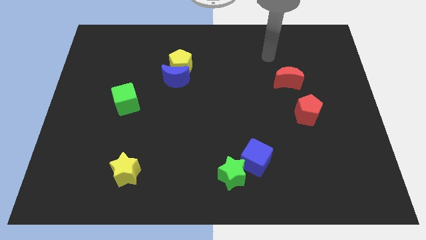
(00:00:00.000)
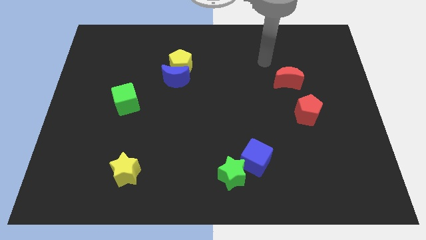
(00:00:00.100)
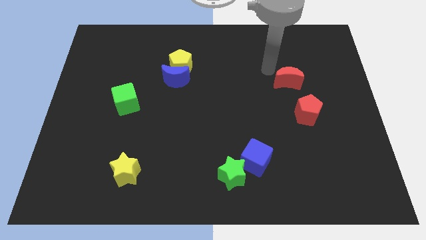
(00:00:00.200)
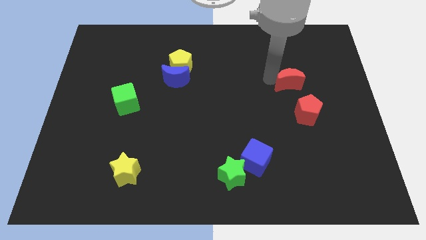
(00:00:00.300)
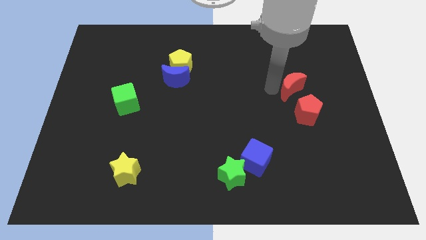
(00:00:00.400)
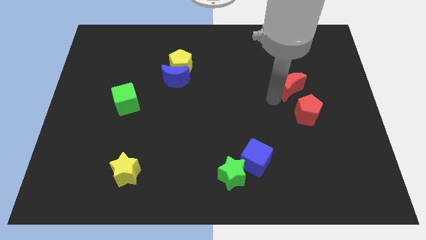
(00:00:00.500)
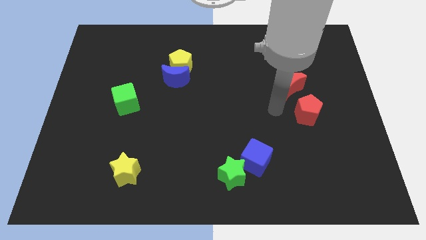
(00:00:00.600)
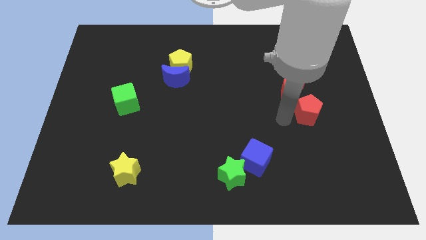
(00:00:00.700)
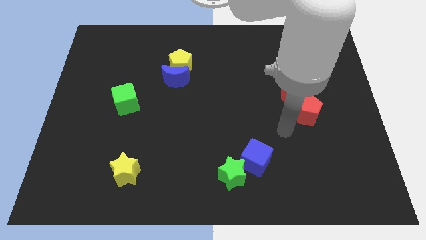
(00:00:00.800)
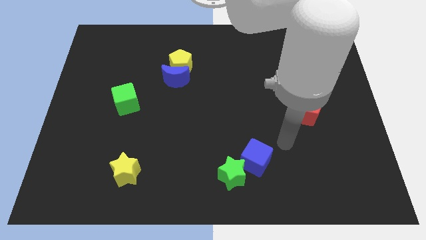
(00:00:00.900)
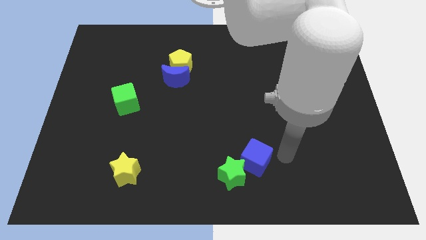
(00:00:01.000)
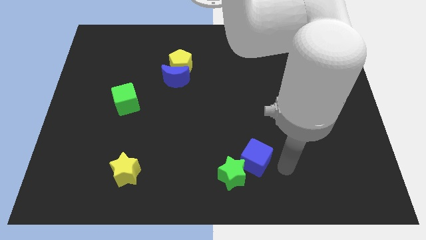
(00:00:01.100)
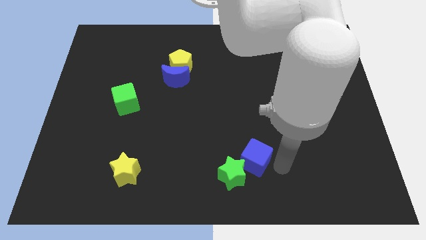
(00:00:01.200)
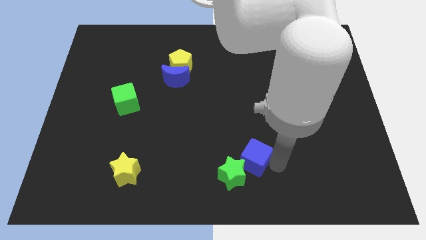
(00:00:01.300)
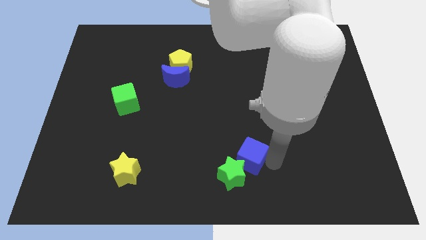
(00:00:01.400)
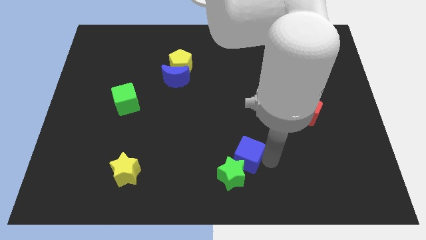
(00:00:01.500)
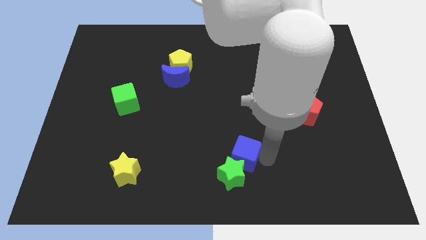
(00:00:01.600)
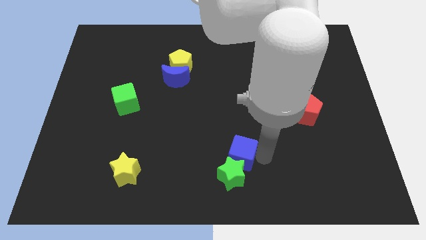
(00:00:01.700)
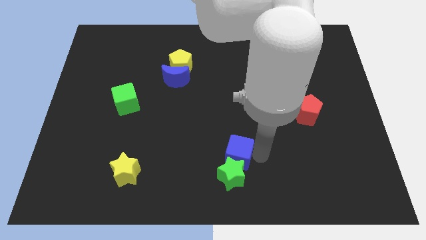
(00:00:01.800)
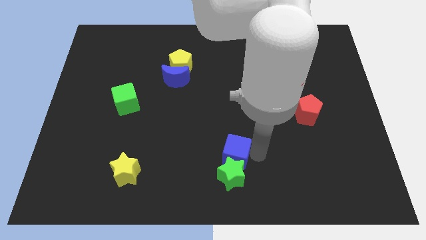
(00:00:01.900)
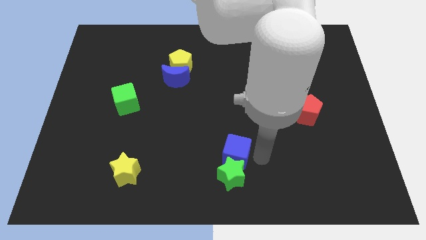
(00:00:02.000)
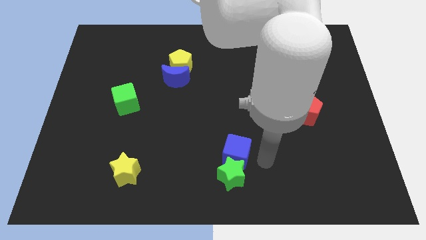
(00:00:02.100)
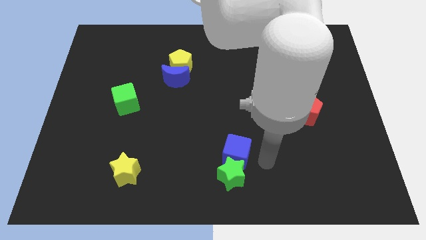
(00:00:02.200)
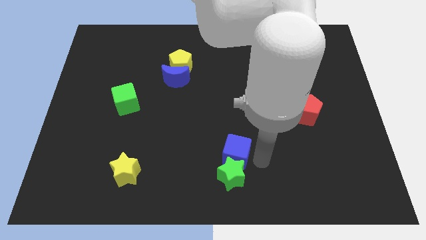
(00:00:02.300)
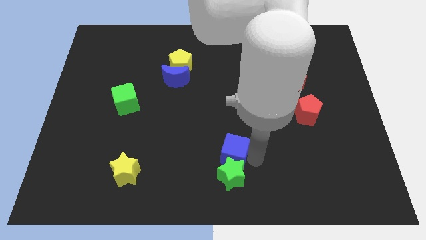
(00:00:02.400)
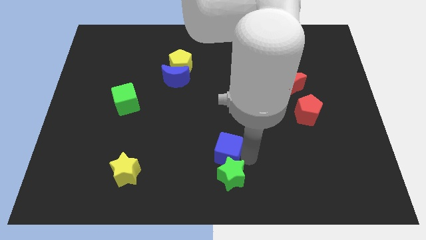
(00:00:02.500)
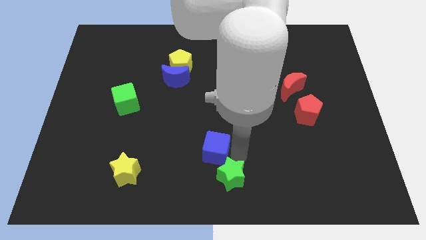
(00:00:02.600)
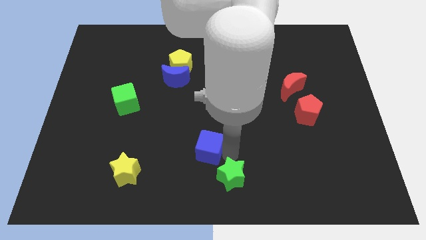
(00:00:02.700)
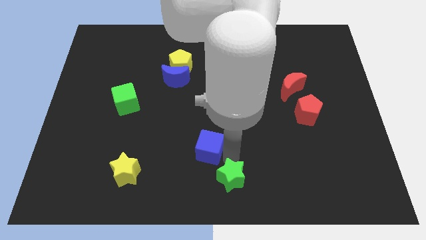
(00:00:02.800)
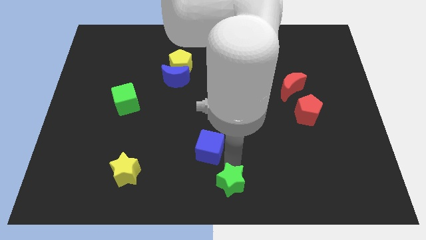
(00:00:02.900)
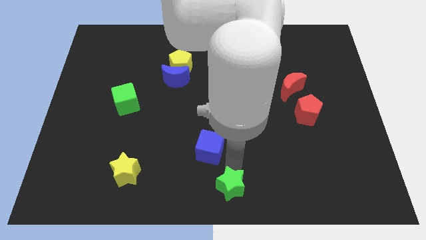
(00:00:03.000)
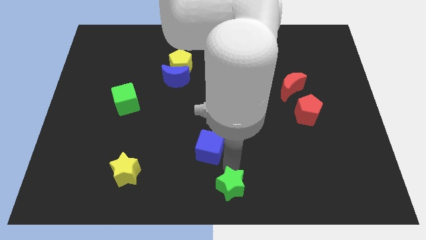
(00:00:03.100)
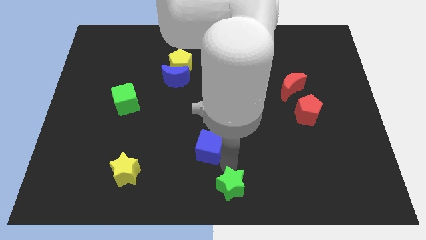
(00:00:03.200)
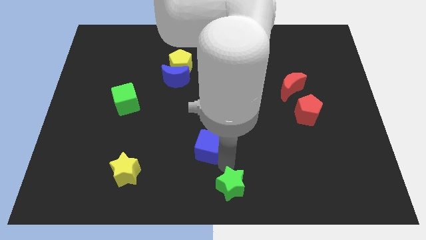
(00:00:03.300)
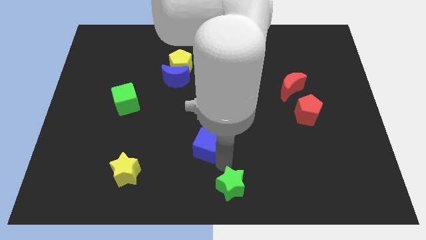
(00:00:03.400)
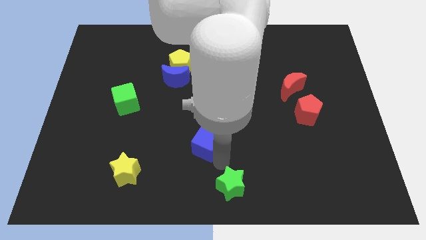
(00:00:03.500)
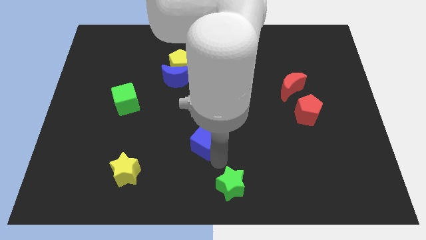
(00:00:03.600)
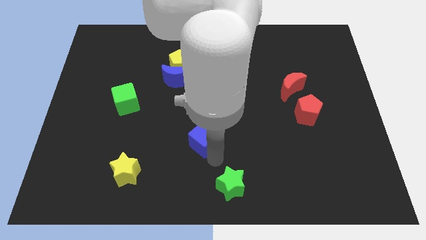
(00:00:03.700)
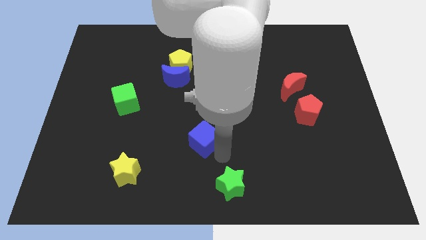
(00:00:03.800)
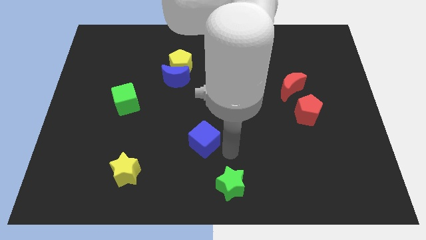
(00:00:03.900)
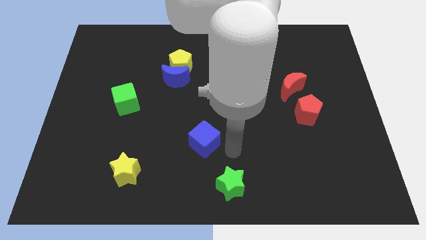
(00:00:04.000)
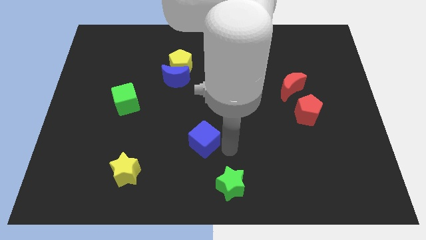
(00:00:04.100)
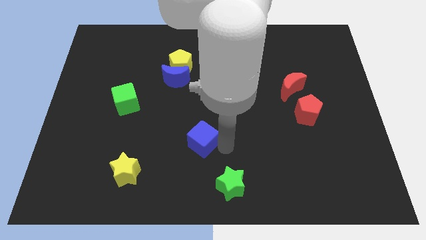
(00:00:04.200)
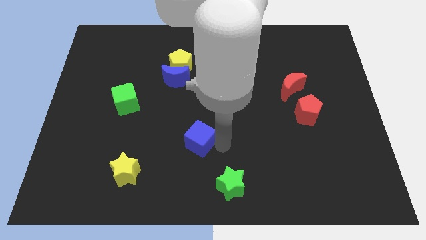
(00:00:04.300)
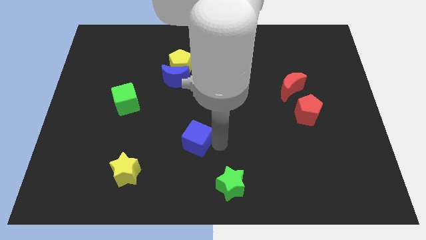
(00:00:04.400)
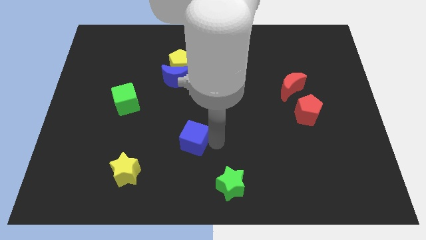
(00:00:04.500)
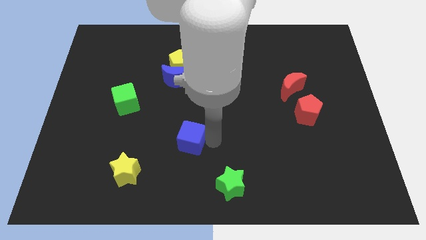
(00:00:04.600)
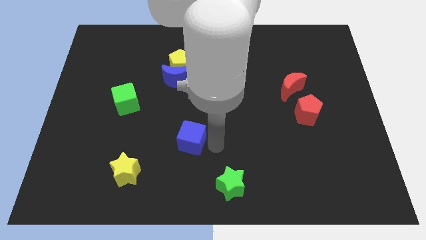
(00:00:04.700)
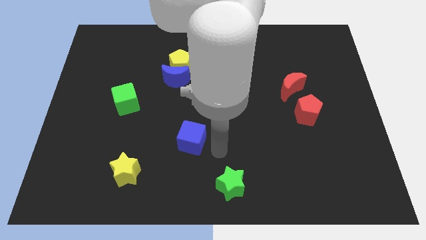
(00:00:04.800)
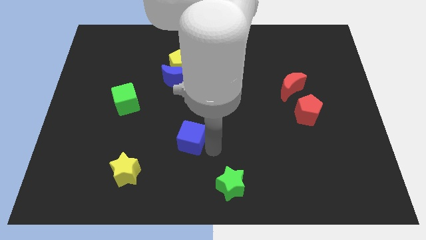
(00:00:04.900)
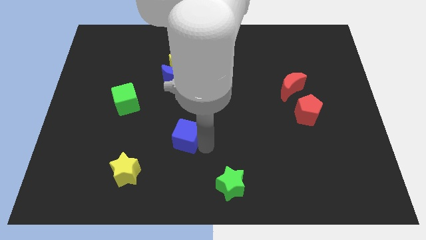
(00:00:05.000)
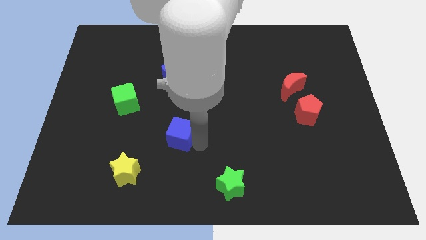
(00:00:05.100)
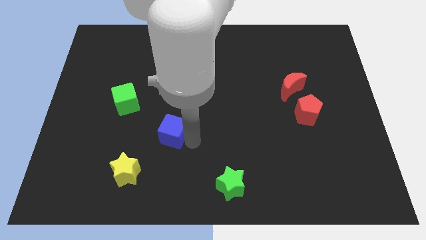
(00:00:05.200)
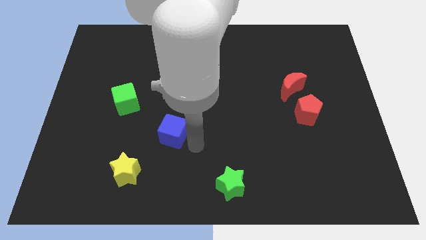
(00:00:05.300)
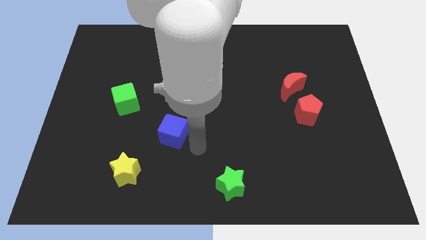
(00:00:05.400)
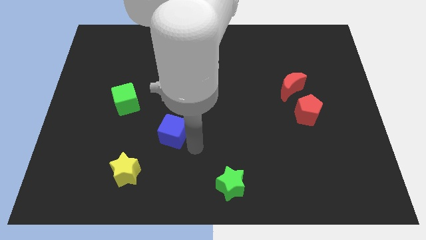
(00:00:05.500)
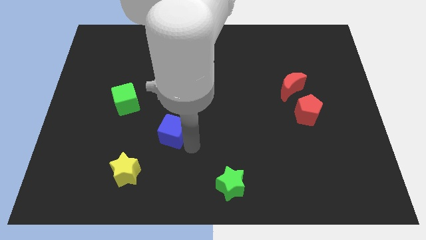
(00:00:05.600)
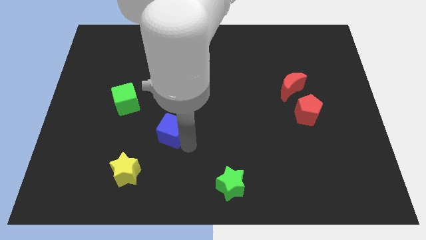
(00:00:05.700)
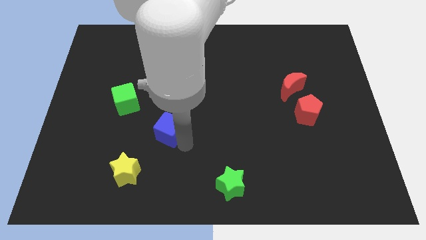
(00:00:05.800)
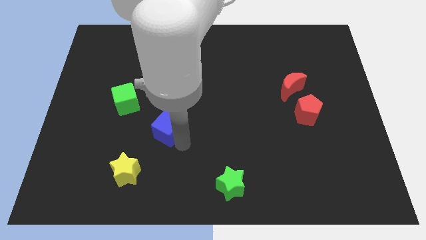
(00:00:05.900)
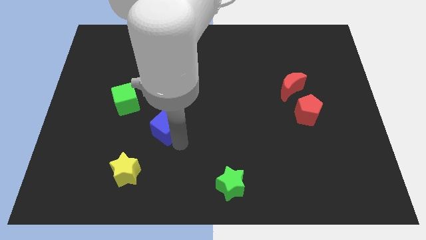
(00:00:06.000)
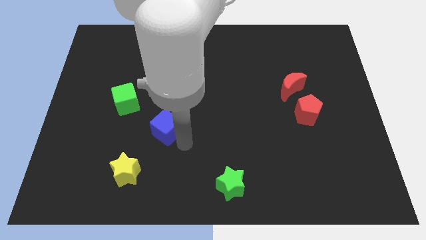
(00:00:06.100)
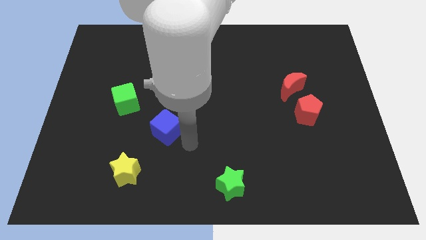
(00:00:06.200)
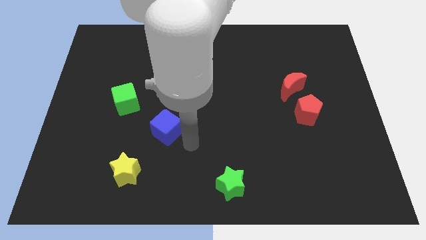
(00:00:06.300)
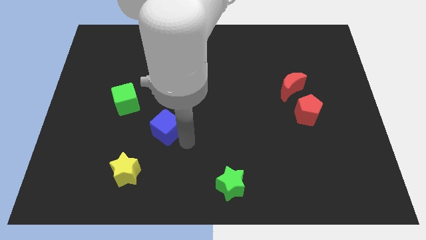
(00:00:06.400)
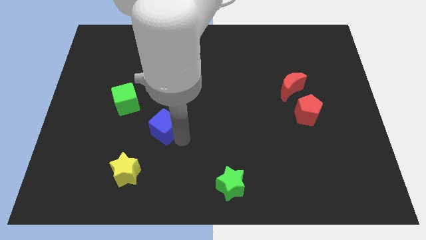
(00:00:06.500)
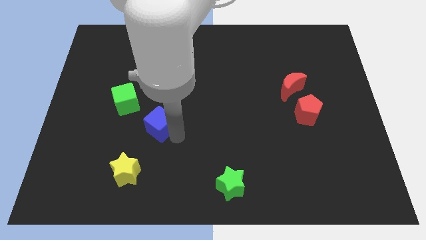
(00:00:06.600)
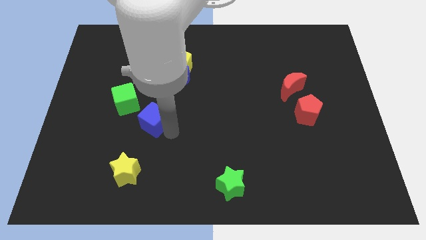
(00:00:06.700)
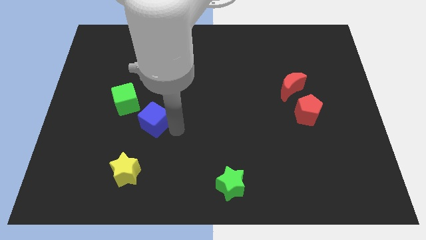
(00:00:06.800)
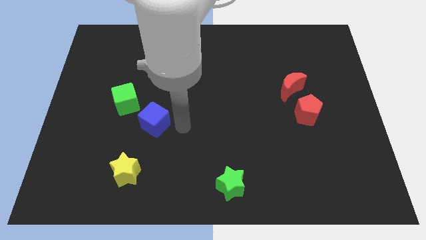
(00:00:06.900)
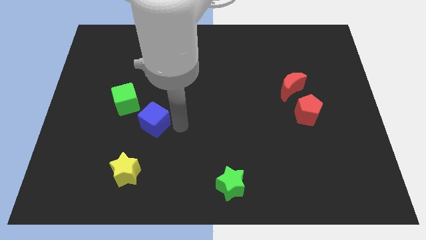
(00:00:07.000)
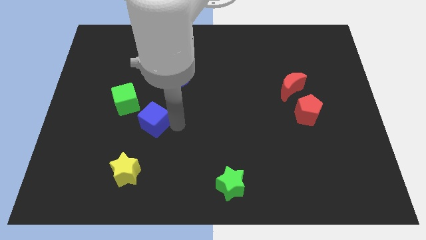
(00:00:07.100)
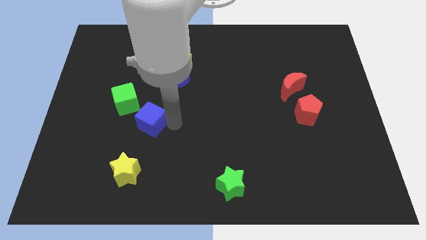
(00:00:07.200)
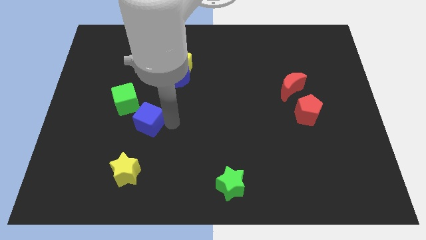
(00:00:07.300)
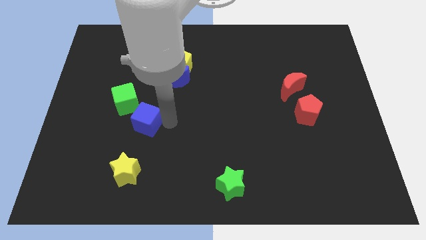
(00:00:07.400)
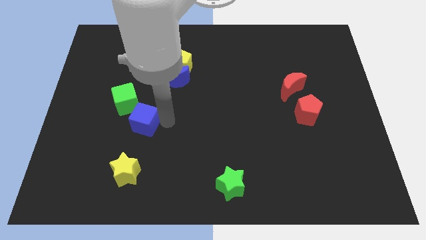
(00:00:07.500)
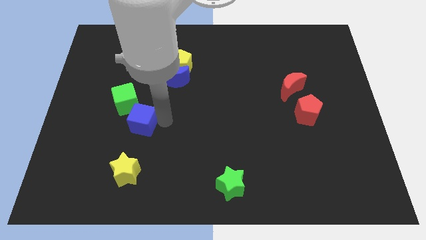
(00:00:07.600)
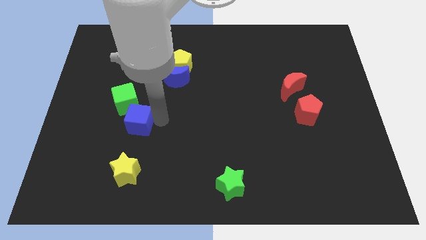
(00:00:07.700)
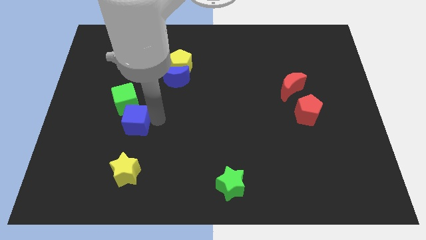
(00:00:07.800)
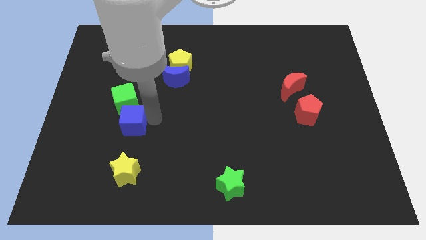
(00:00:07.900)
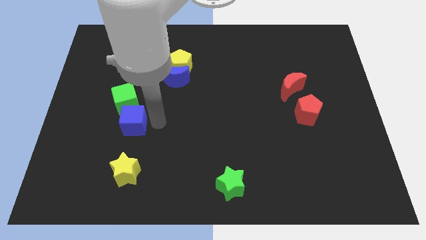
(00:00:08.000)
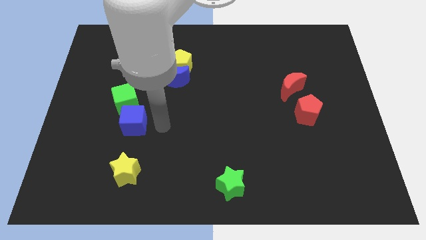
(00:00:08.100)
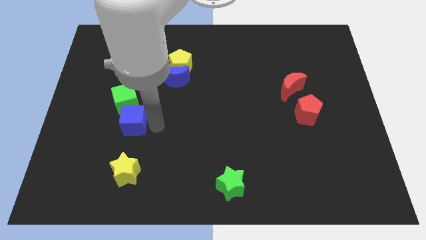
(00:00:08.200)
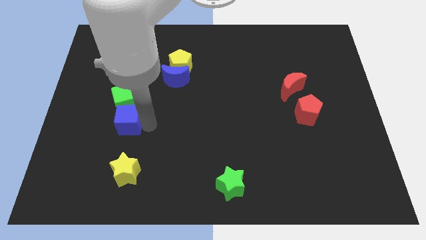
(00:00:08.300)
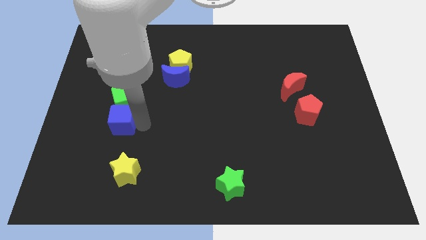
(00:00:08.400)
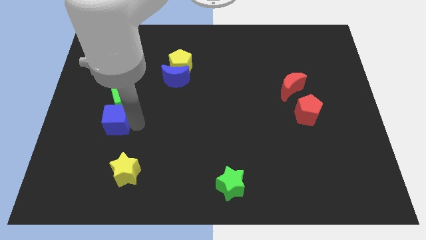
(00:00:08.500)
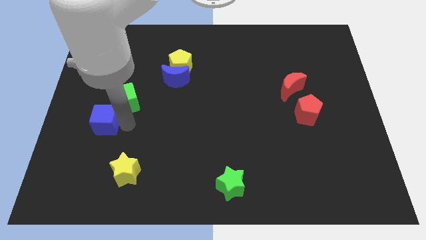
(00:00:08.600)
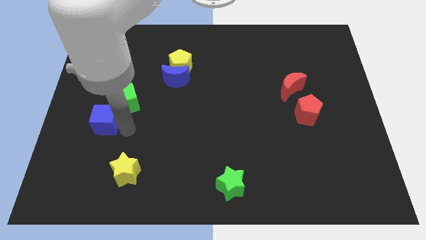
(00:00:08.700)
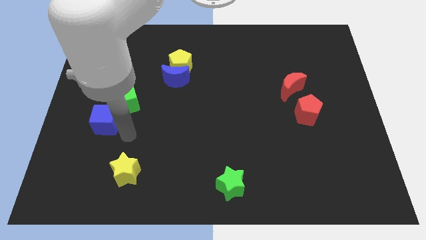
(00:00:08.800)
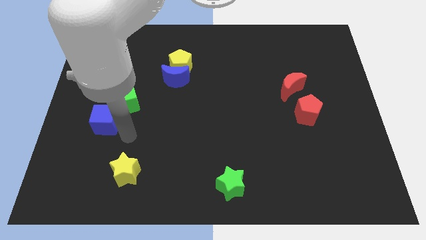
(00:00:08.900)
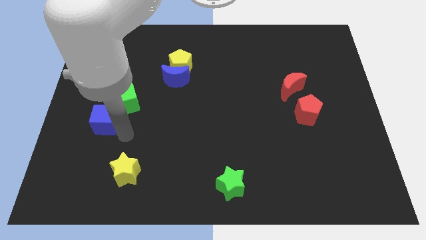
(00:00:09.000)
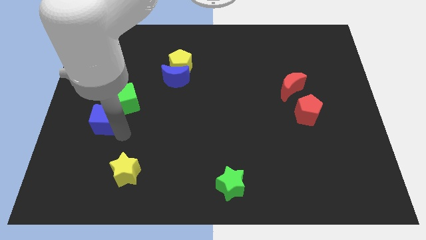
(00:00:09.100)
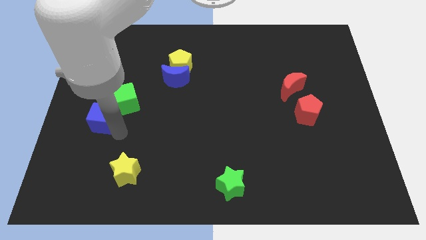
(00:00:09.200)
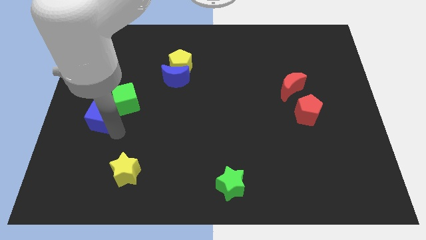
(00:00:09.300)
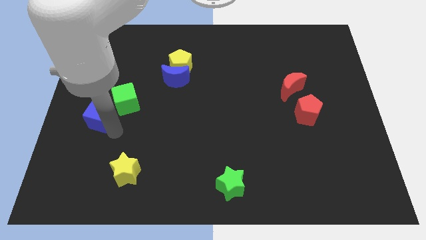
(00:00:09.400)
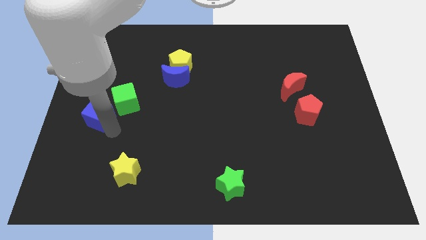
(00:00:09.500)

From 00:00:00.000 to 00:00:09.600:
push the blue cube to the center left
